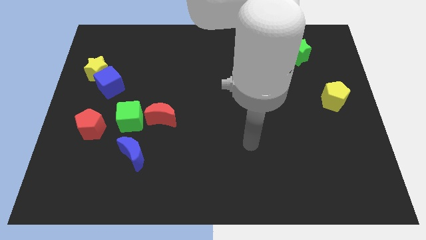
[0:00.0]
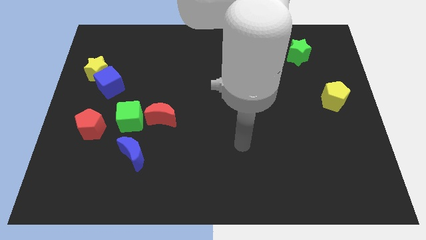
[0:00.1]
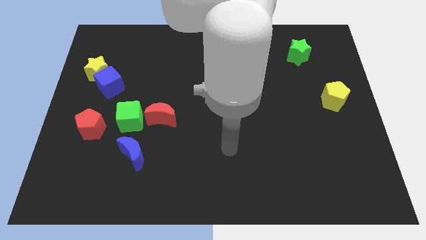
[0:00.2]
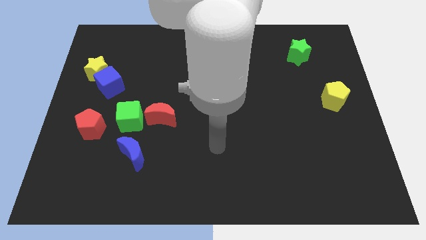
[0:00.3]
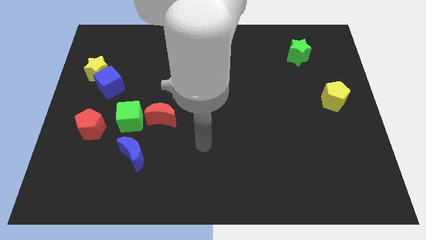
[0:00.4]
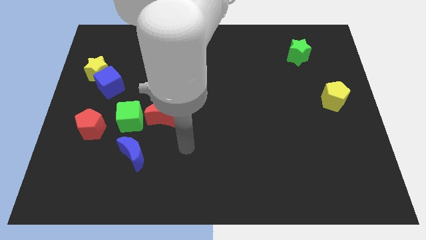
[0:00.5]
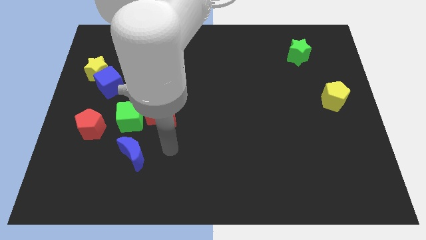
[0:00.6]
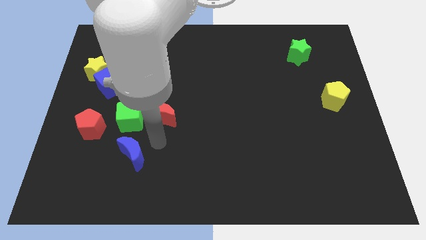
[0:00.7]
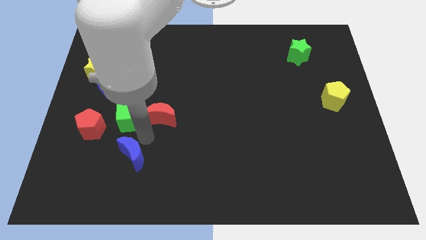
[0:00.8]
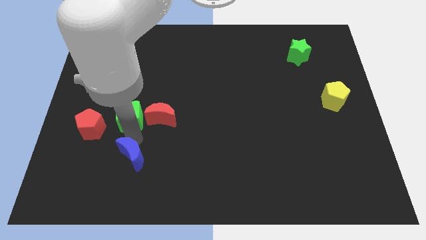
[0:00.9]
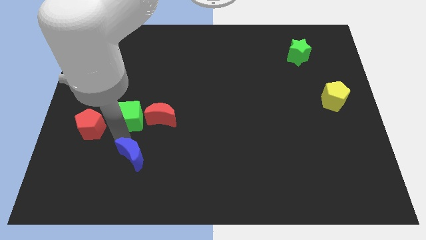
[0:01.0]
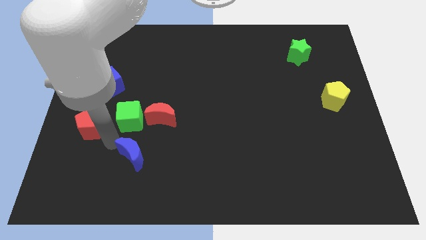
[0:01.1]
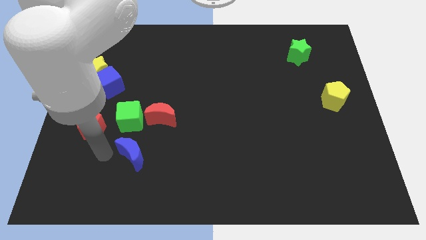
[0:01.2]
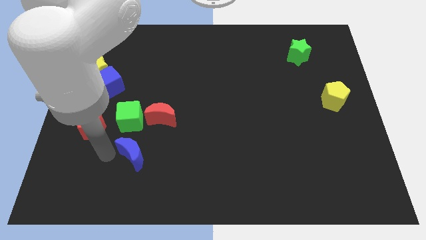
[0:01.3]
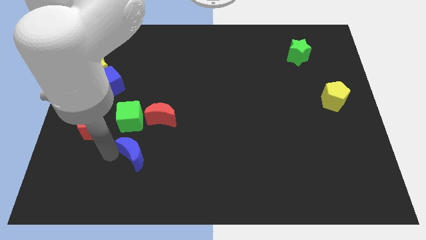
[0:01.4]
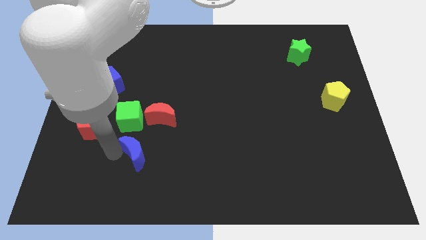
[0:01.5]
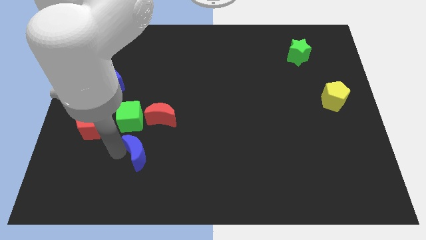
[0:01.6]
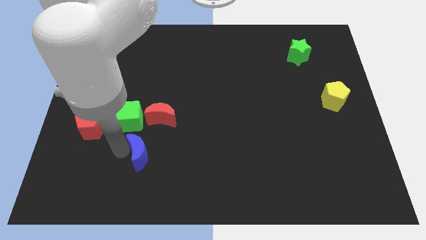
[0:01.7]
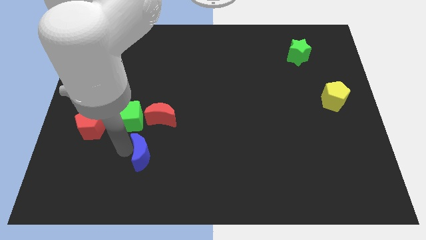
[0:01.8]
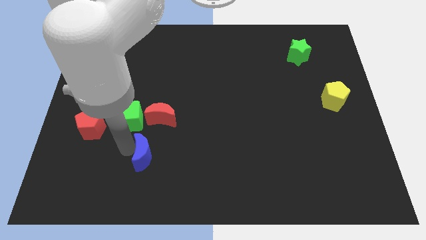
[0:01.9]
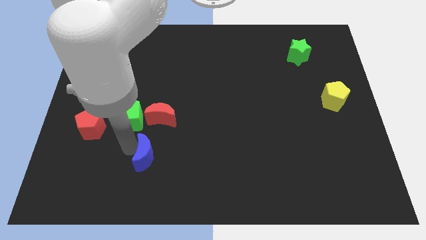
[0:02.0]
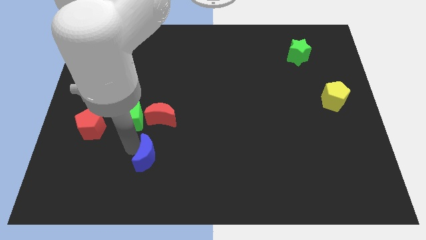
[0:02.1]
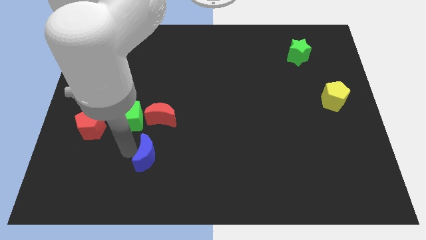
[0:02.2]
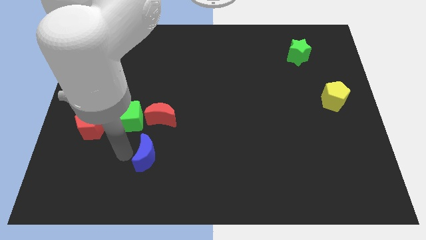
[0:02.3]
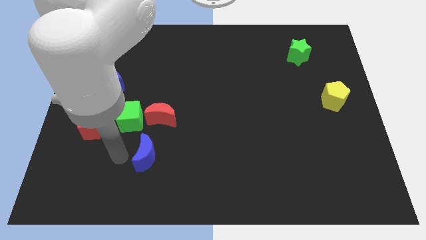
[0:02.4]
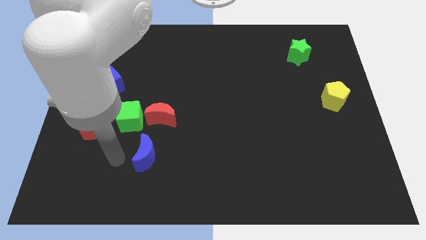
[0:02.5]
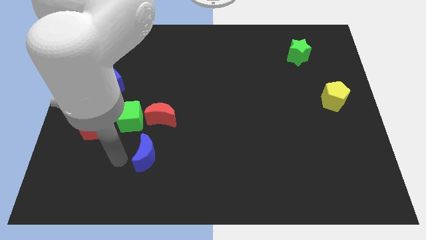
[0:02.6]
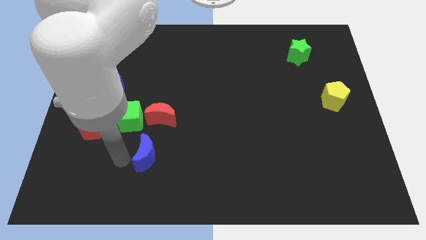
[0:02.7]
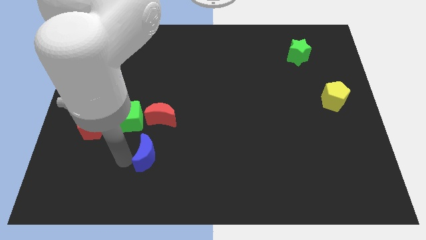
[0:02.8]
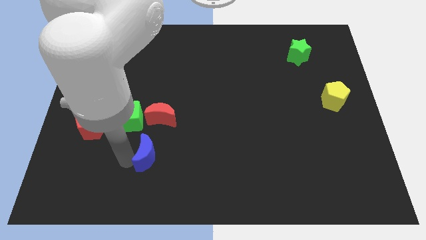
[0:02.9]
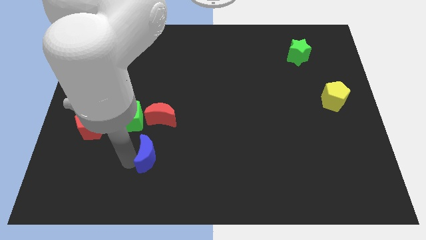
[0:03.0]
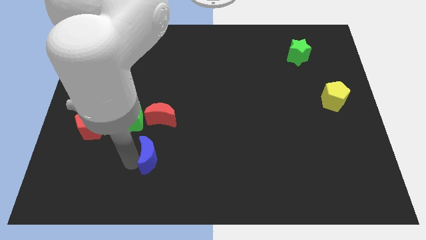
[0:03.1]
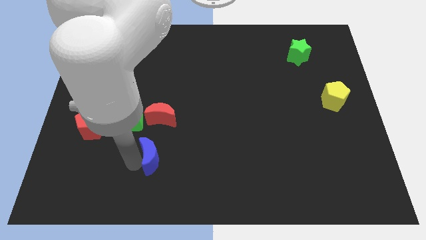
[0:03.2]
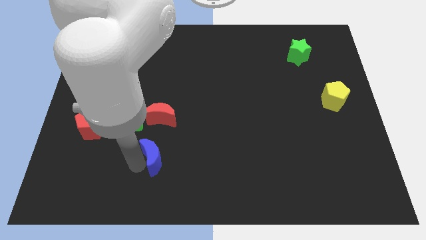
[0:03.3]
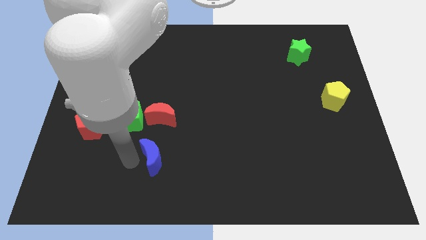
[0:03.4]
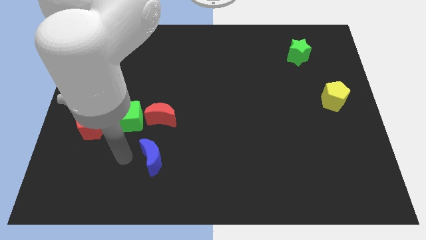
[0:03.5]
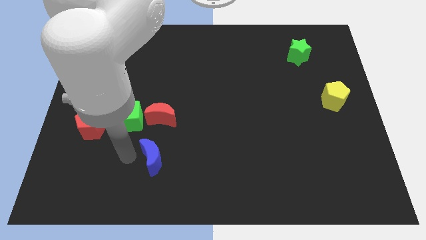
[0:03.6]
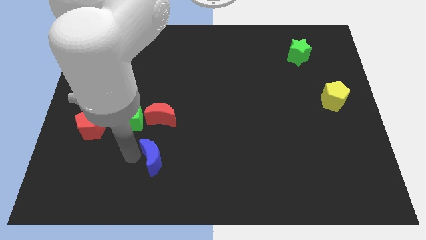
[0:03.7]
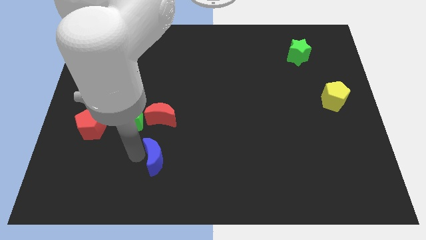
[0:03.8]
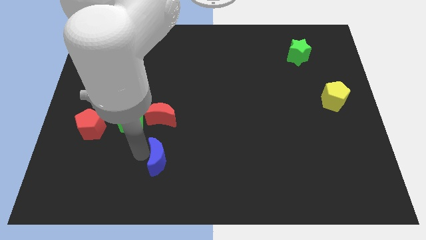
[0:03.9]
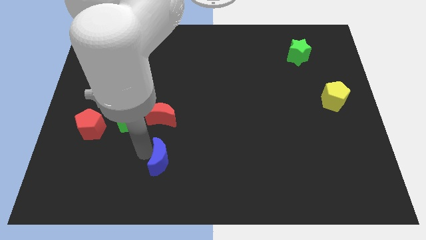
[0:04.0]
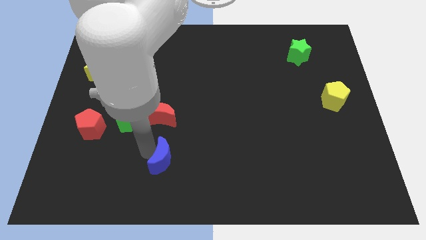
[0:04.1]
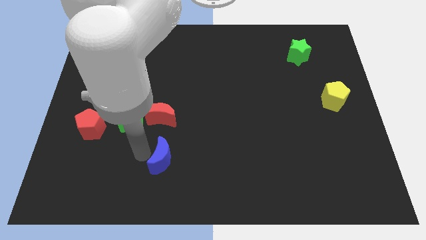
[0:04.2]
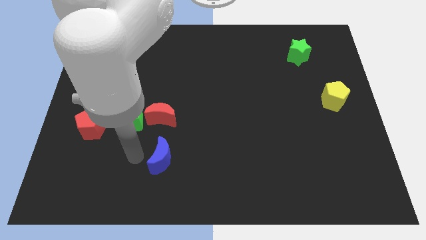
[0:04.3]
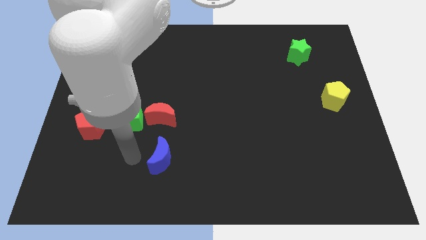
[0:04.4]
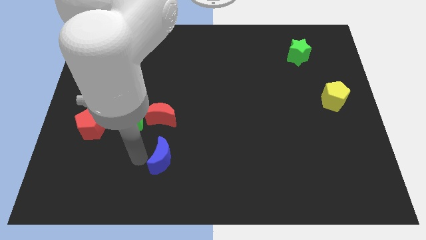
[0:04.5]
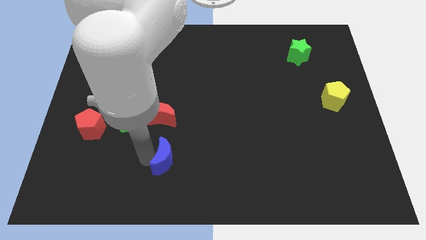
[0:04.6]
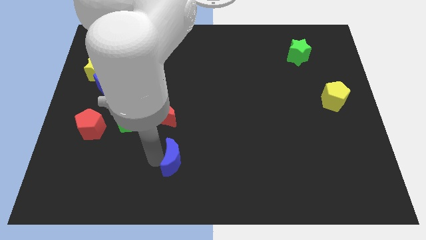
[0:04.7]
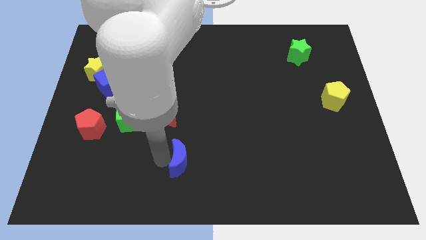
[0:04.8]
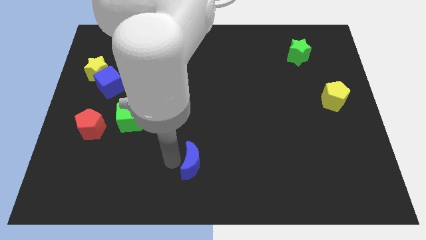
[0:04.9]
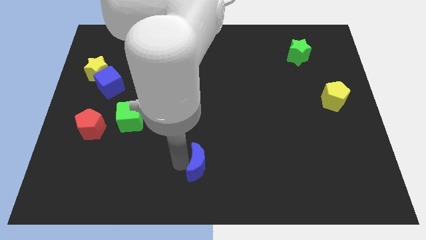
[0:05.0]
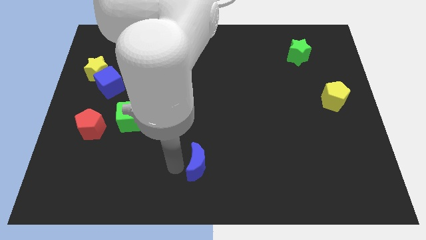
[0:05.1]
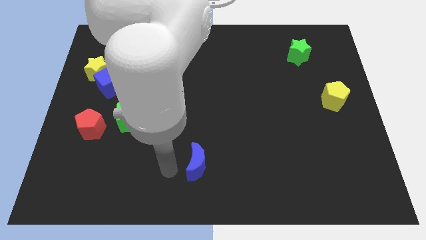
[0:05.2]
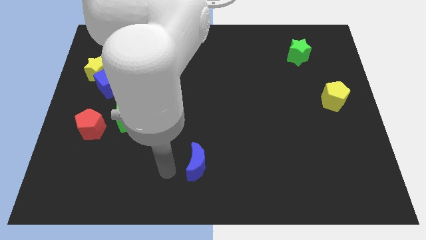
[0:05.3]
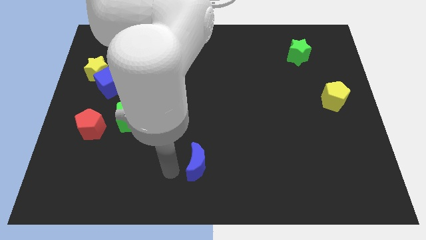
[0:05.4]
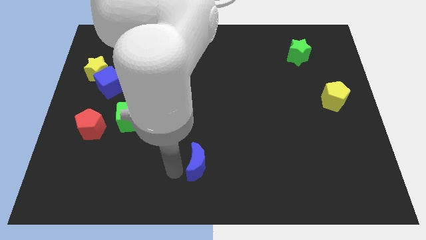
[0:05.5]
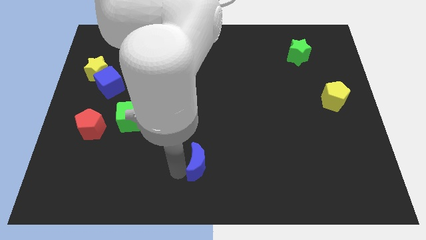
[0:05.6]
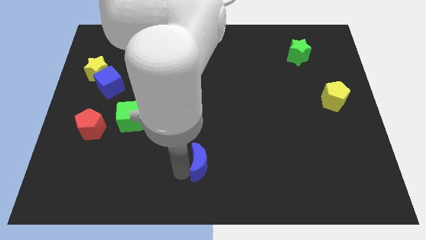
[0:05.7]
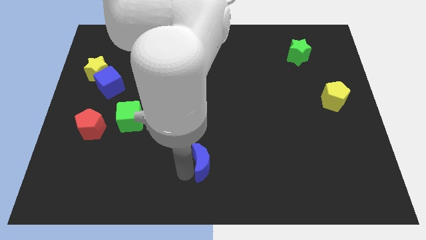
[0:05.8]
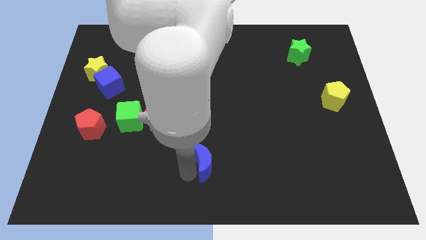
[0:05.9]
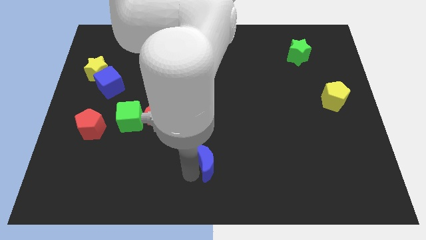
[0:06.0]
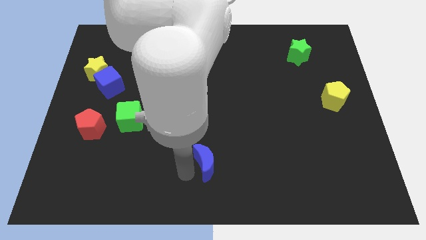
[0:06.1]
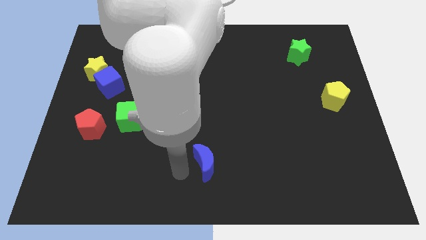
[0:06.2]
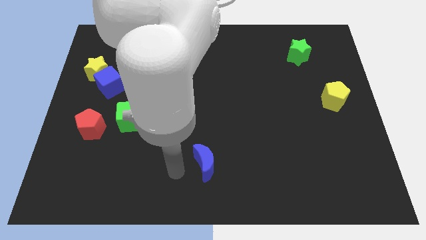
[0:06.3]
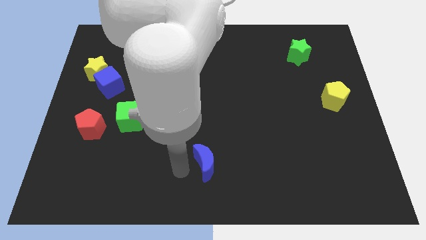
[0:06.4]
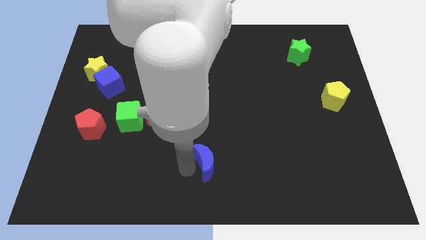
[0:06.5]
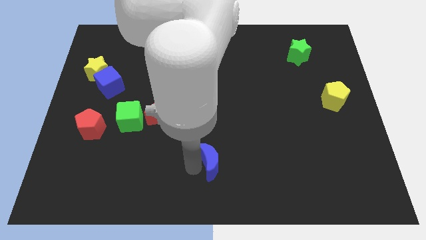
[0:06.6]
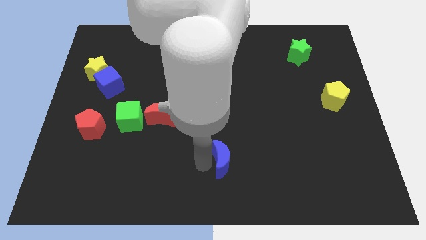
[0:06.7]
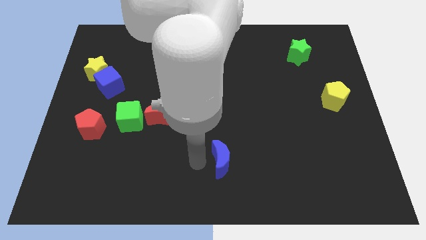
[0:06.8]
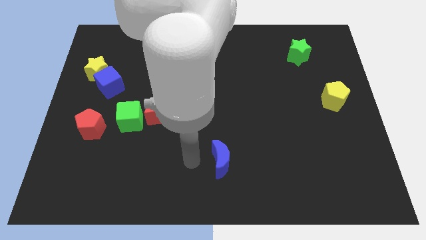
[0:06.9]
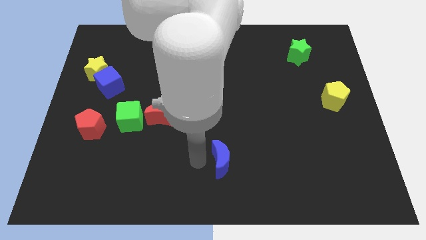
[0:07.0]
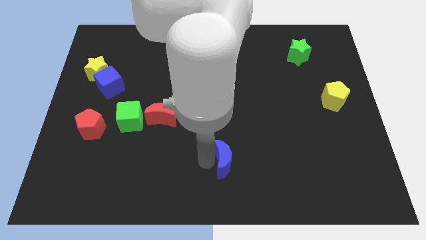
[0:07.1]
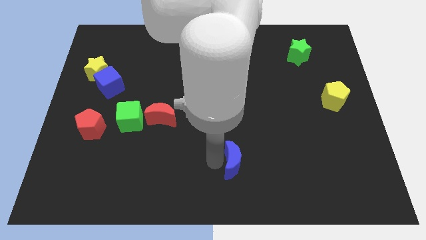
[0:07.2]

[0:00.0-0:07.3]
slide the blue moon to the right

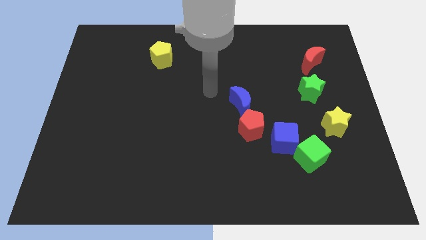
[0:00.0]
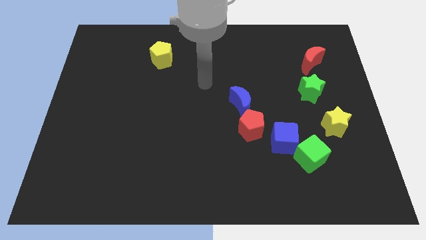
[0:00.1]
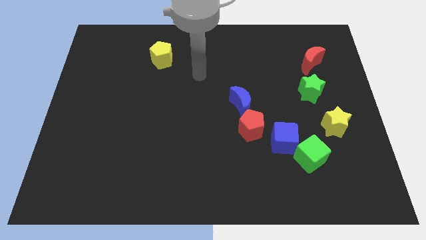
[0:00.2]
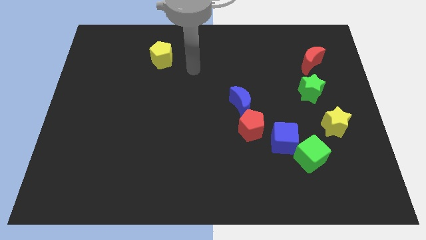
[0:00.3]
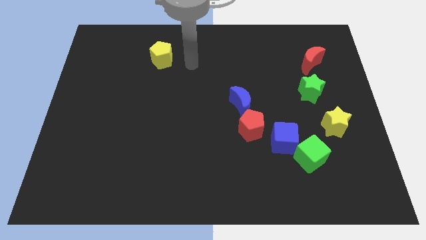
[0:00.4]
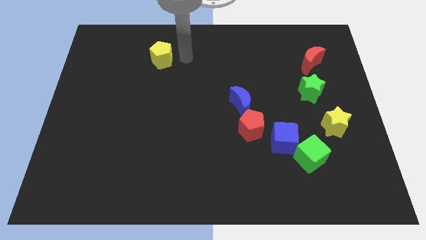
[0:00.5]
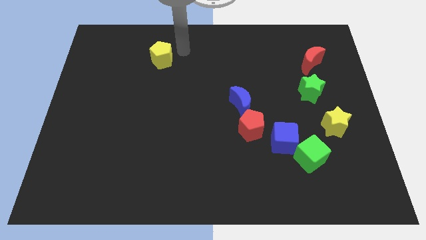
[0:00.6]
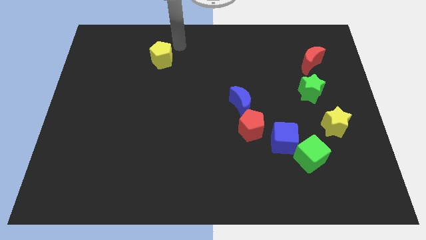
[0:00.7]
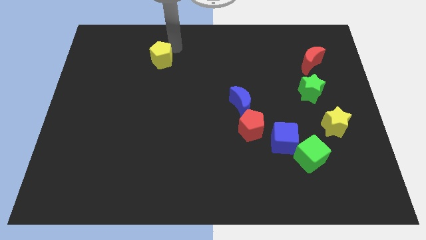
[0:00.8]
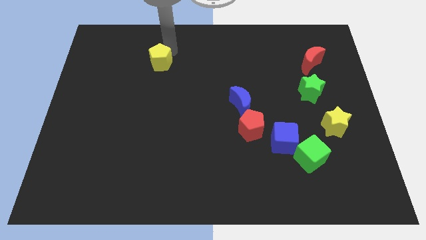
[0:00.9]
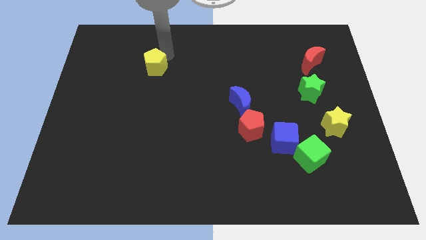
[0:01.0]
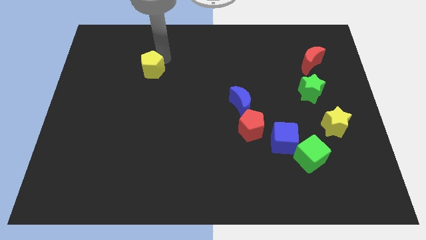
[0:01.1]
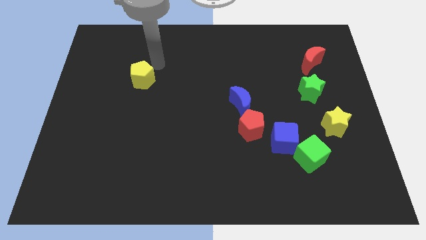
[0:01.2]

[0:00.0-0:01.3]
slightly move the yellow pentagon down and then left
